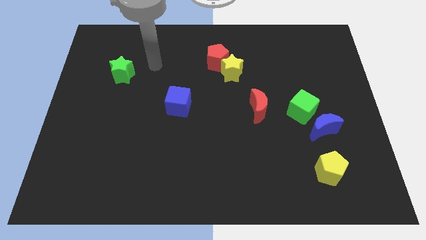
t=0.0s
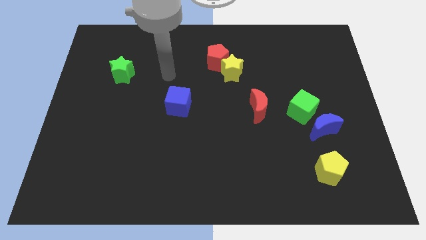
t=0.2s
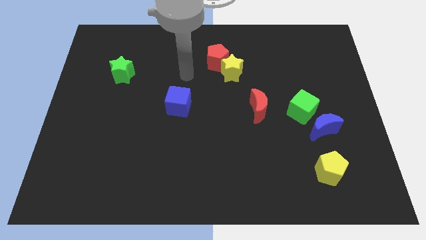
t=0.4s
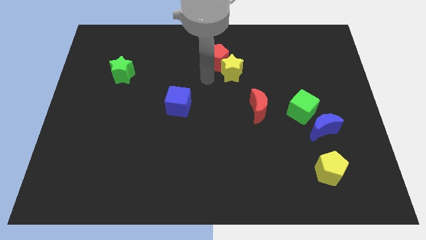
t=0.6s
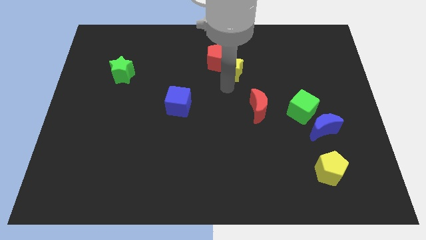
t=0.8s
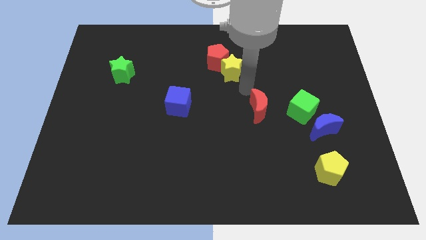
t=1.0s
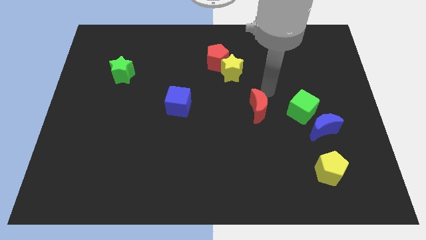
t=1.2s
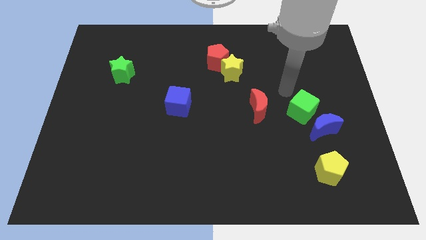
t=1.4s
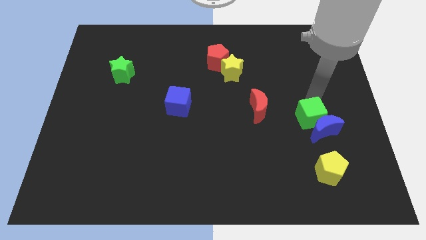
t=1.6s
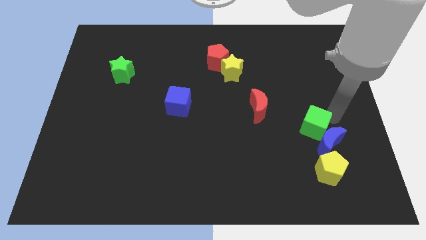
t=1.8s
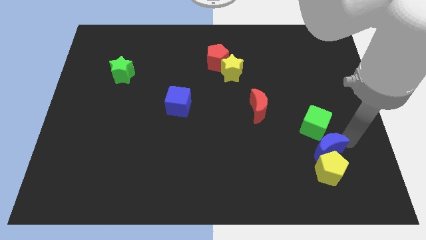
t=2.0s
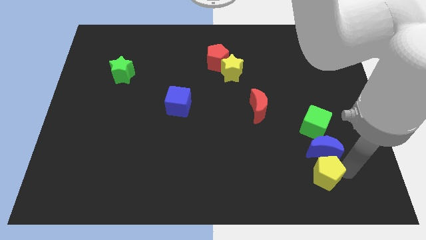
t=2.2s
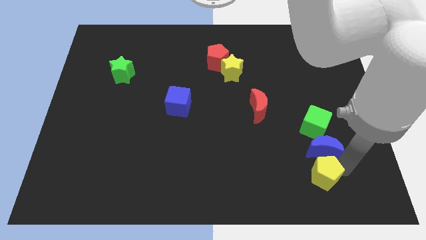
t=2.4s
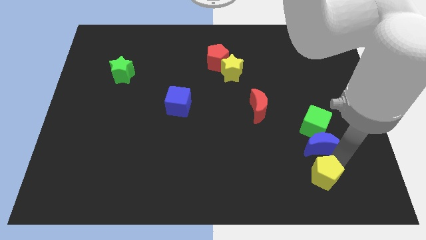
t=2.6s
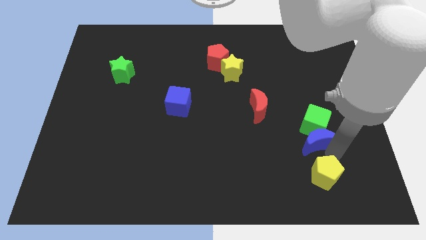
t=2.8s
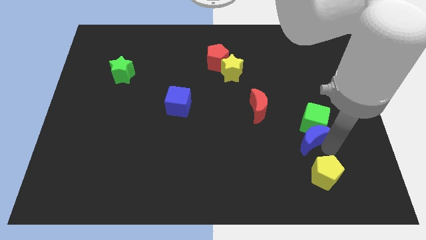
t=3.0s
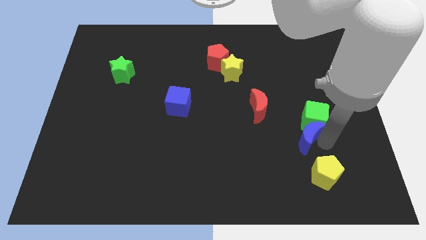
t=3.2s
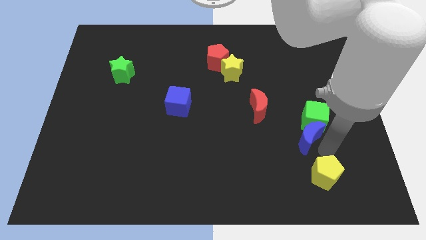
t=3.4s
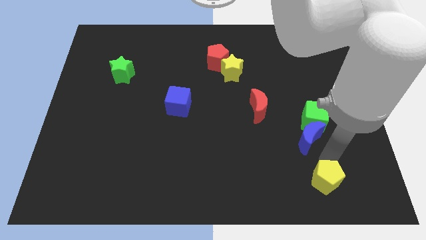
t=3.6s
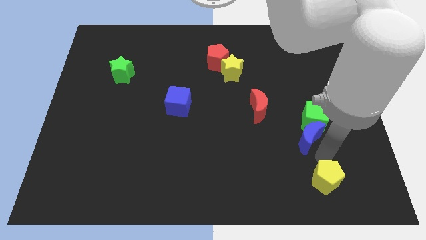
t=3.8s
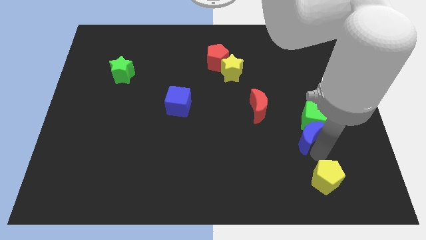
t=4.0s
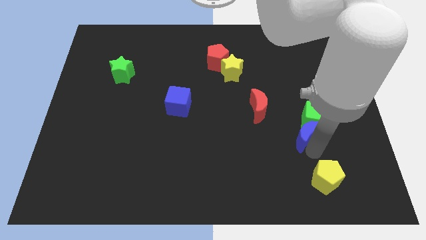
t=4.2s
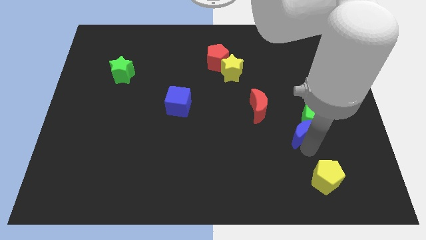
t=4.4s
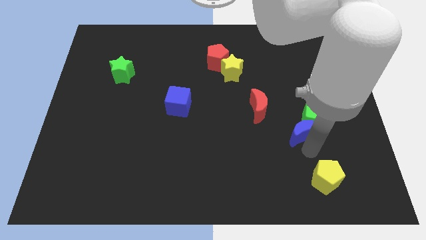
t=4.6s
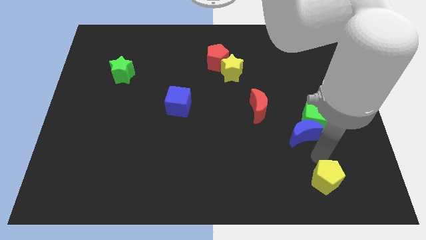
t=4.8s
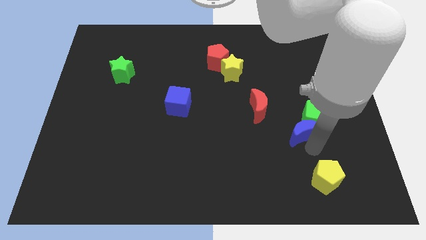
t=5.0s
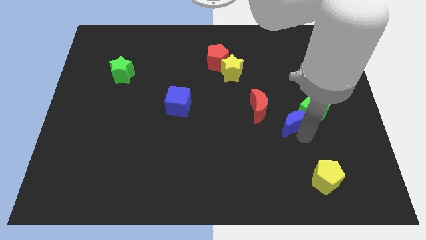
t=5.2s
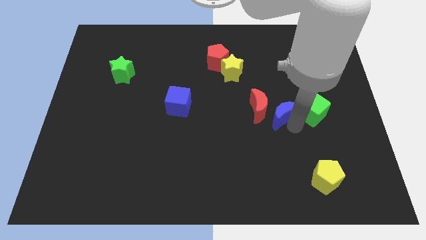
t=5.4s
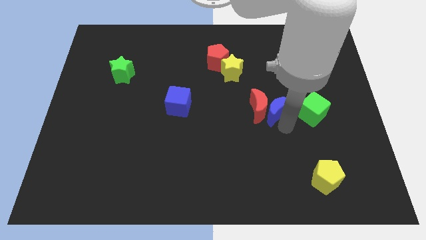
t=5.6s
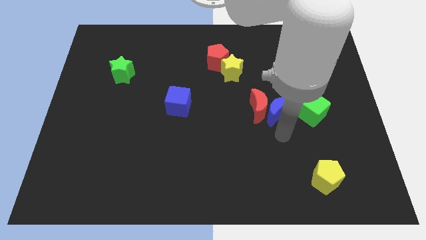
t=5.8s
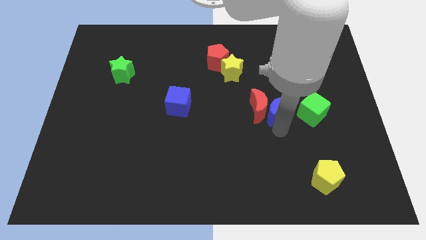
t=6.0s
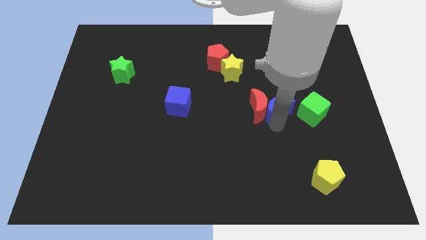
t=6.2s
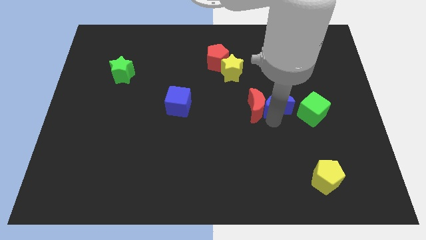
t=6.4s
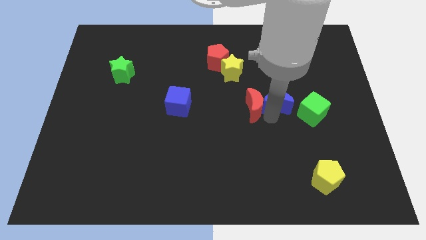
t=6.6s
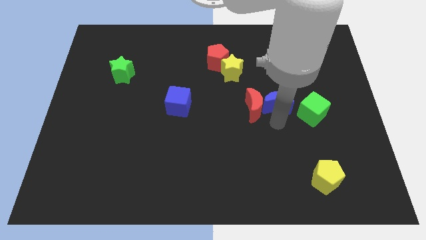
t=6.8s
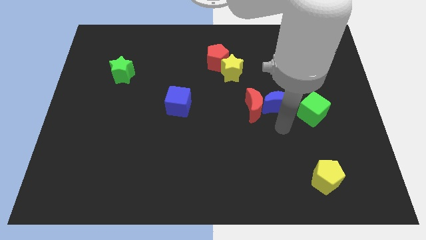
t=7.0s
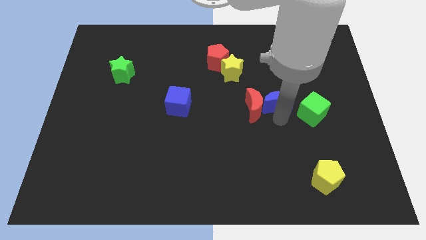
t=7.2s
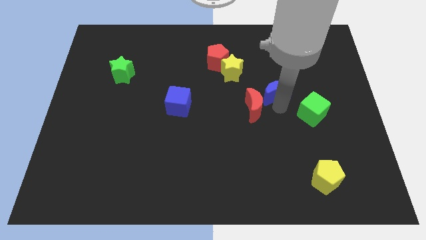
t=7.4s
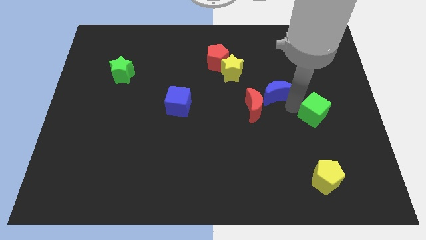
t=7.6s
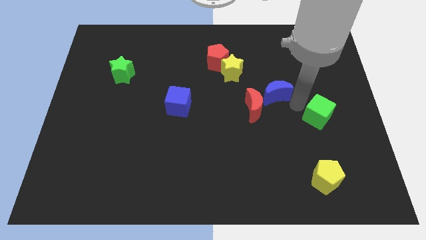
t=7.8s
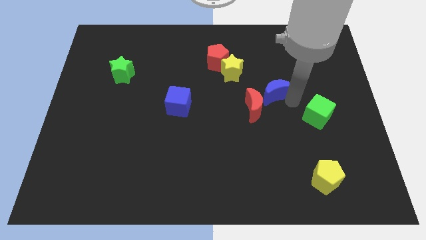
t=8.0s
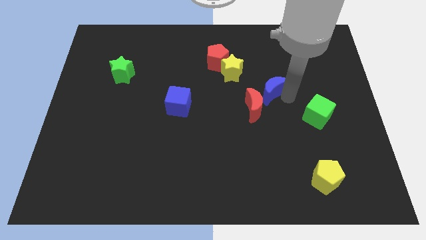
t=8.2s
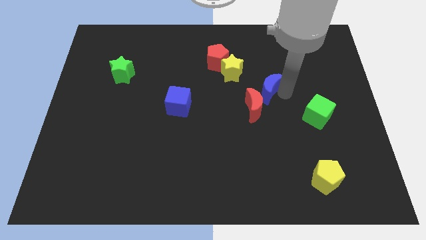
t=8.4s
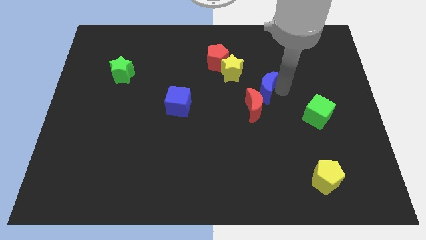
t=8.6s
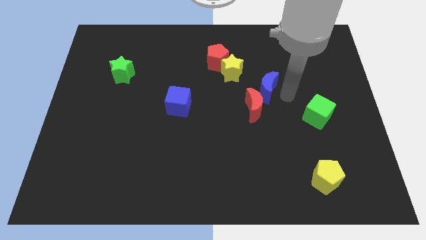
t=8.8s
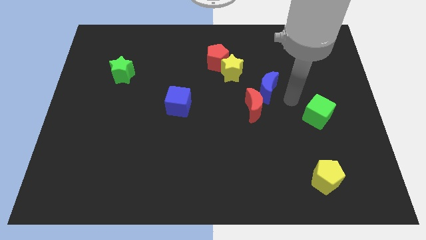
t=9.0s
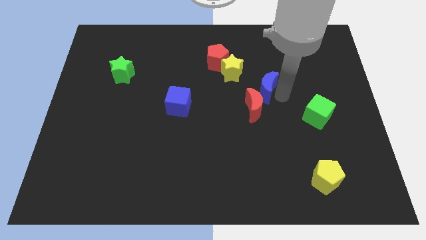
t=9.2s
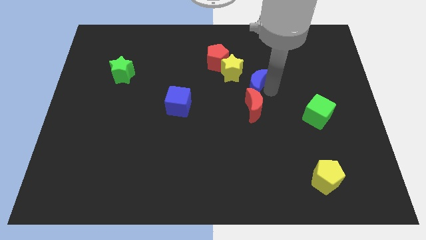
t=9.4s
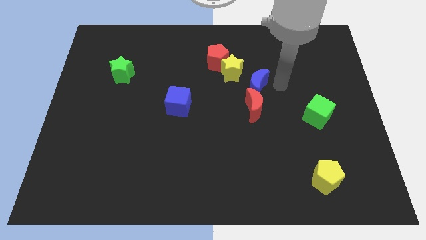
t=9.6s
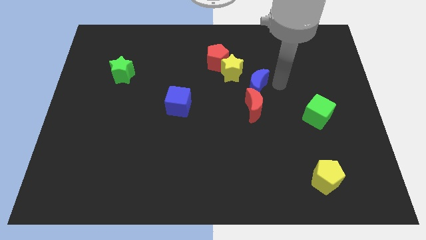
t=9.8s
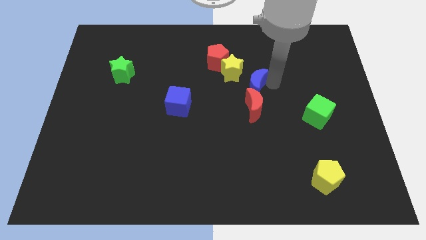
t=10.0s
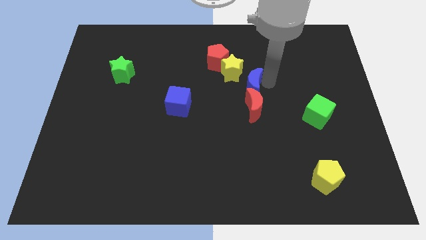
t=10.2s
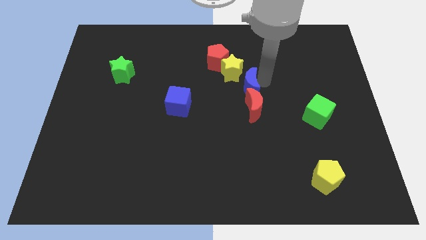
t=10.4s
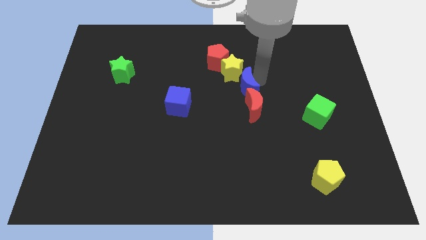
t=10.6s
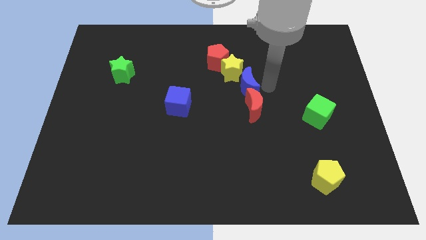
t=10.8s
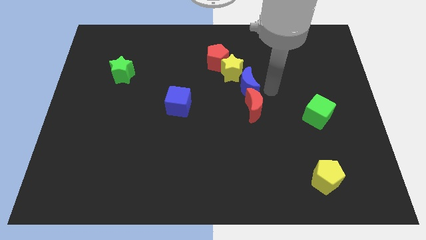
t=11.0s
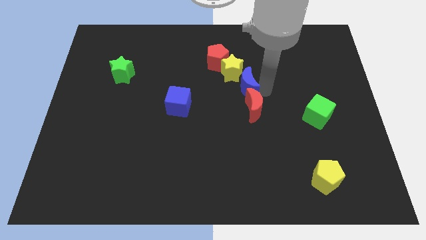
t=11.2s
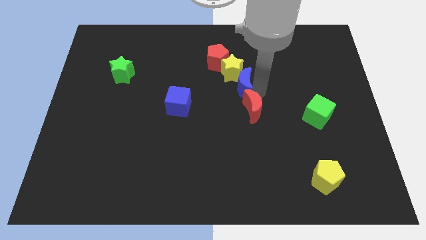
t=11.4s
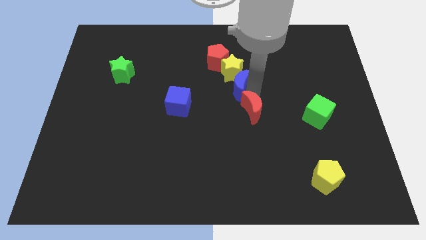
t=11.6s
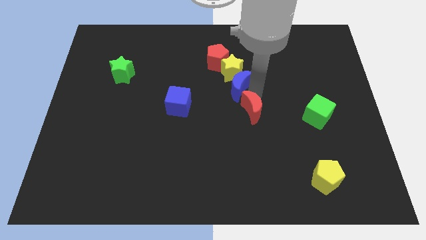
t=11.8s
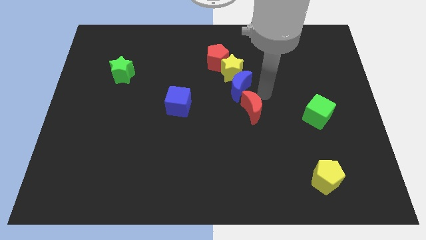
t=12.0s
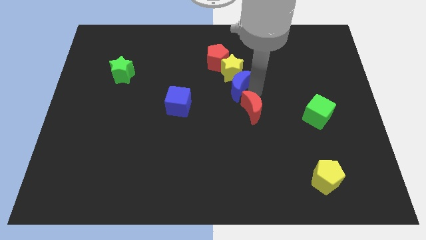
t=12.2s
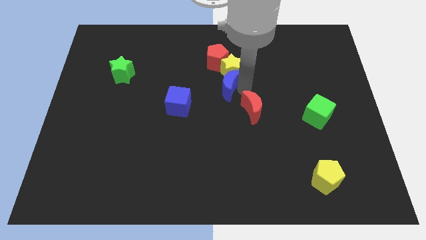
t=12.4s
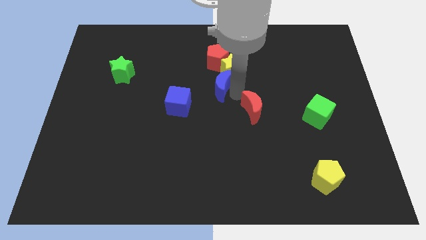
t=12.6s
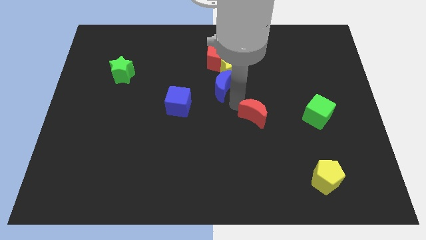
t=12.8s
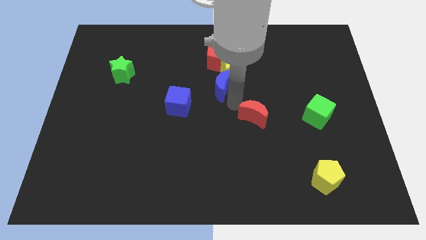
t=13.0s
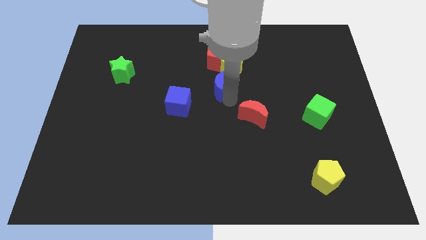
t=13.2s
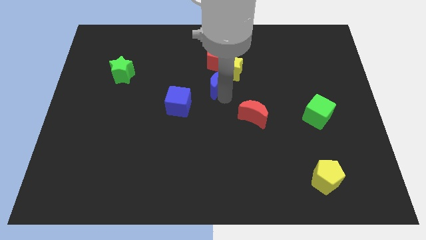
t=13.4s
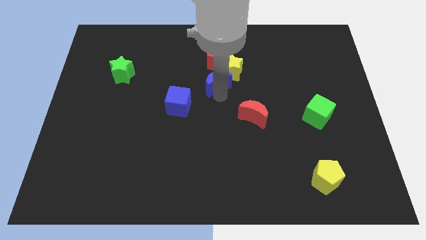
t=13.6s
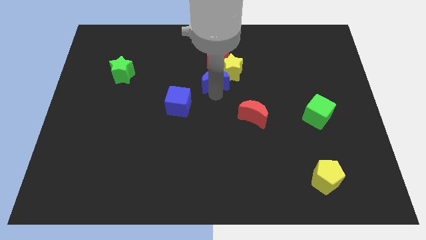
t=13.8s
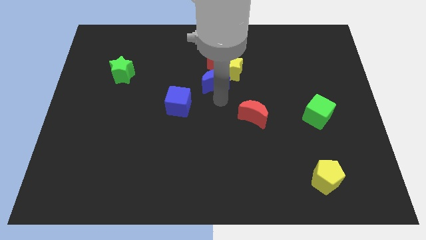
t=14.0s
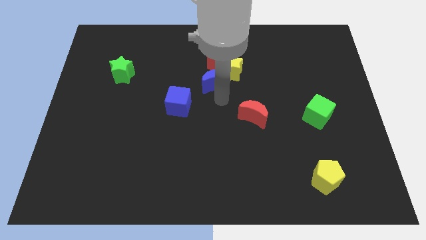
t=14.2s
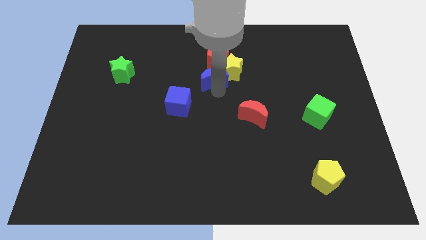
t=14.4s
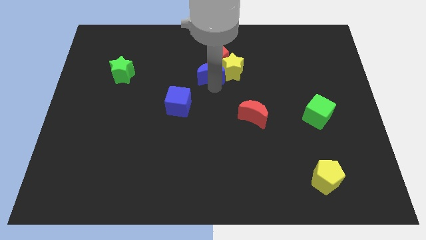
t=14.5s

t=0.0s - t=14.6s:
slide the blue moon next to the red pentagon
